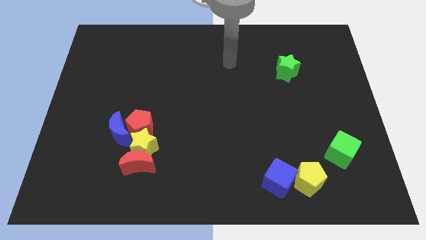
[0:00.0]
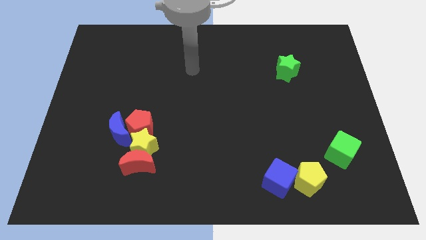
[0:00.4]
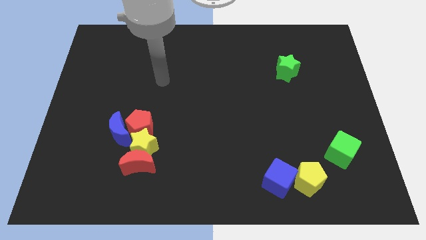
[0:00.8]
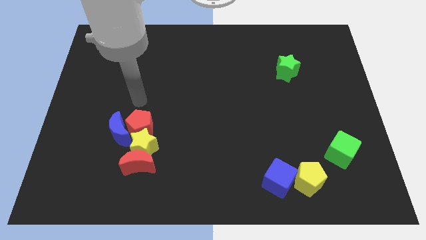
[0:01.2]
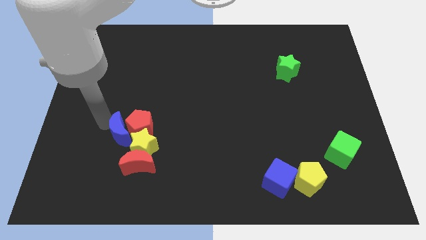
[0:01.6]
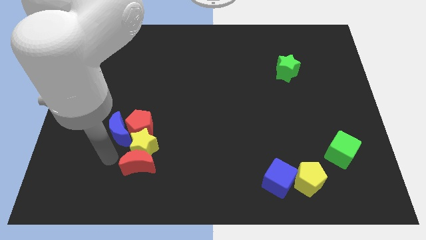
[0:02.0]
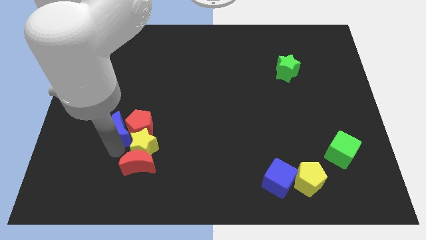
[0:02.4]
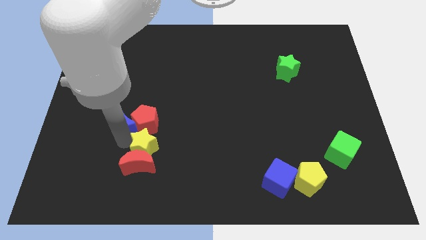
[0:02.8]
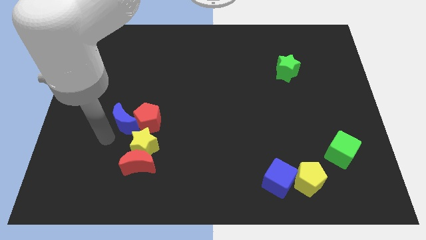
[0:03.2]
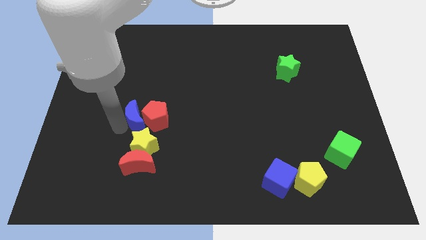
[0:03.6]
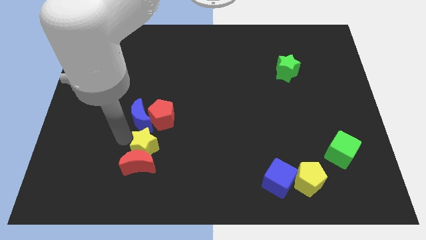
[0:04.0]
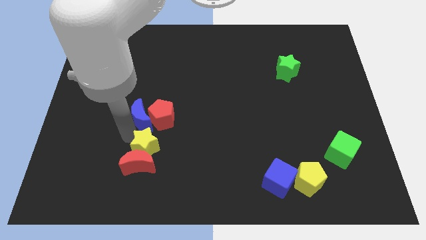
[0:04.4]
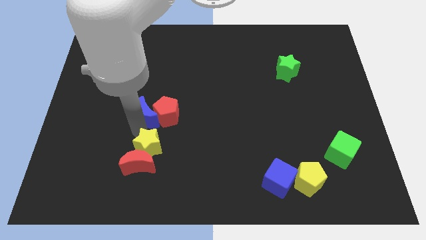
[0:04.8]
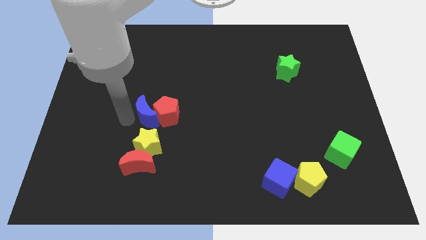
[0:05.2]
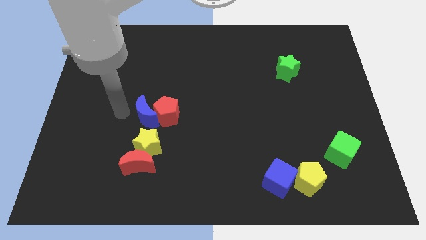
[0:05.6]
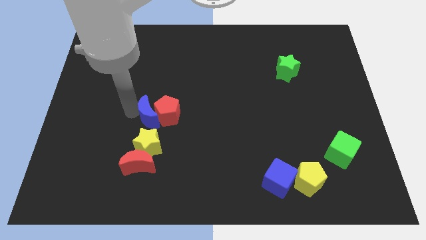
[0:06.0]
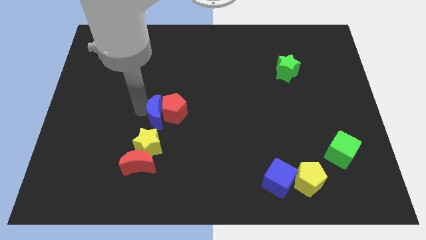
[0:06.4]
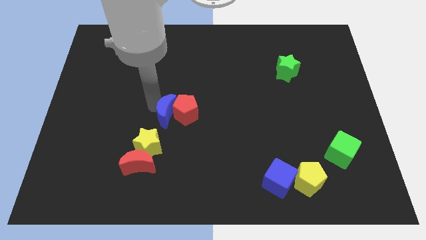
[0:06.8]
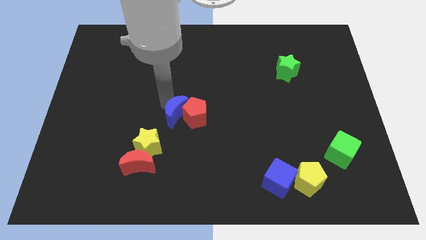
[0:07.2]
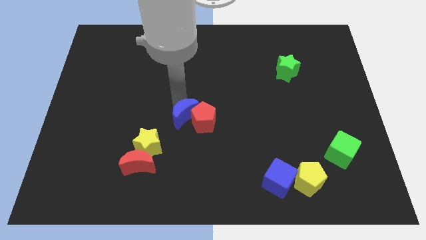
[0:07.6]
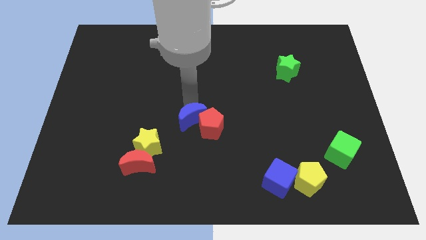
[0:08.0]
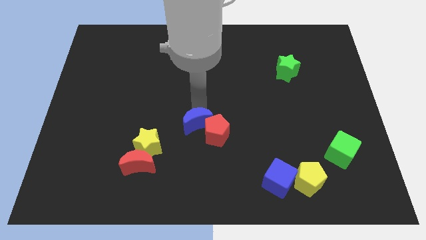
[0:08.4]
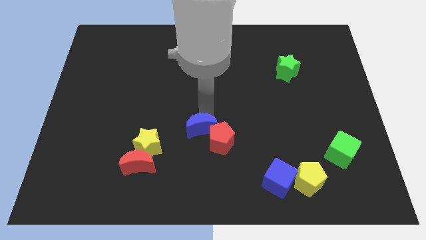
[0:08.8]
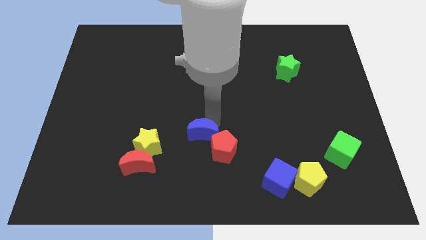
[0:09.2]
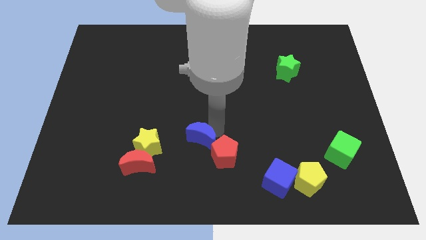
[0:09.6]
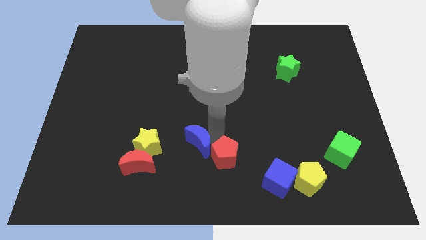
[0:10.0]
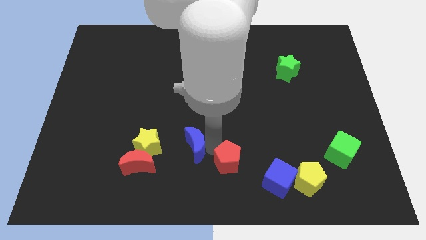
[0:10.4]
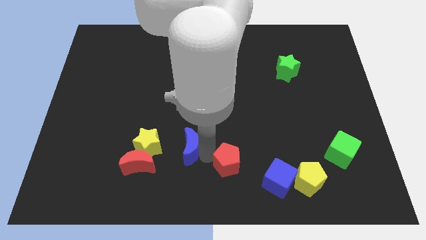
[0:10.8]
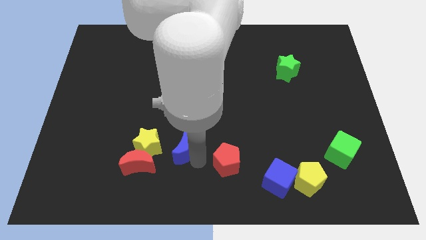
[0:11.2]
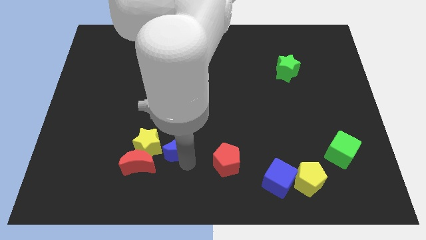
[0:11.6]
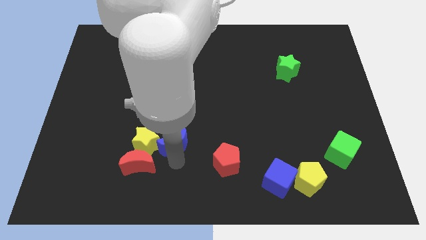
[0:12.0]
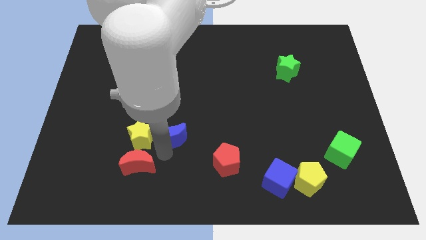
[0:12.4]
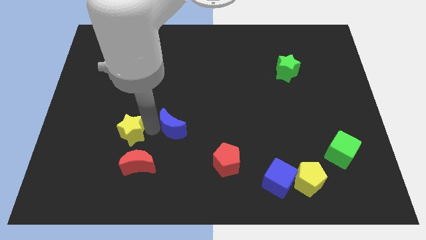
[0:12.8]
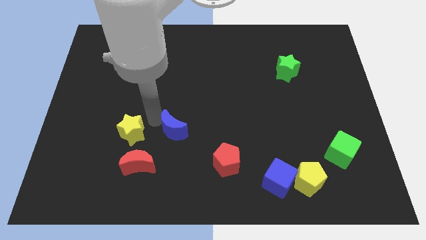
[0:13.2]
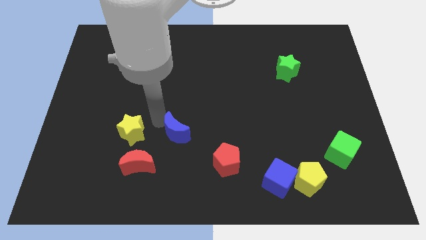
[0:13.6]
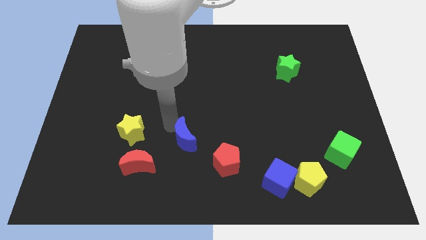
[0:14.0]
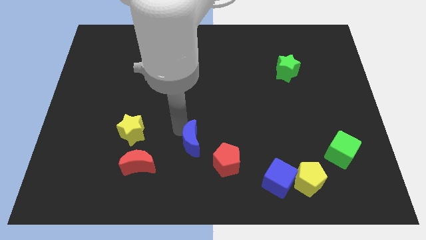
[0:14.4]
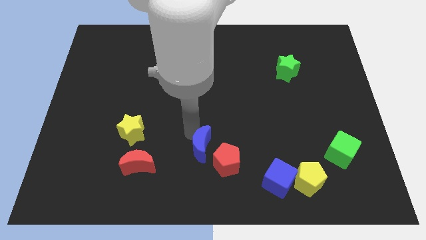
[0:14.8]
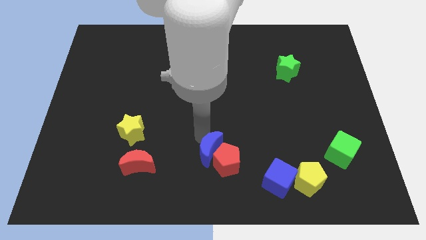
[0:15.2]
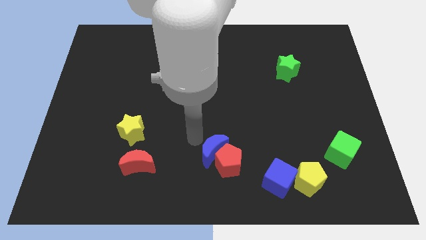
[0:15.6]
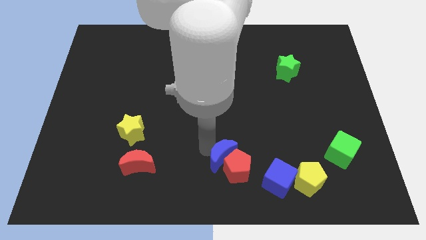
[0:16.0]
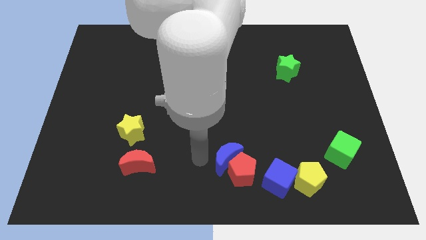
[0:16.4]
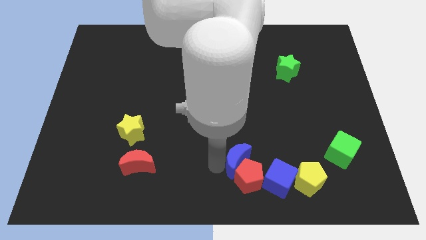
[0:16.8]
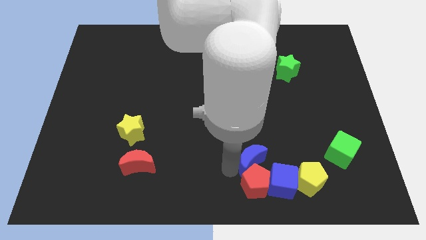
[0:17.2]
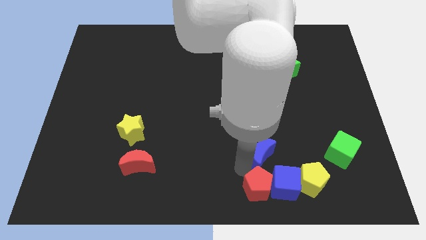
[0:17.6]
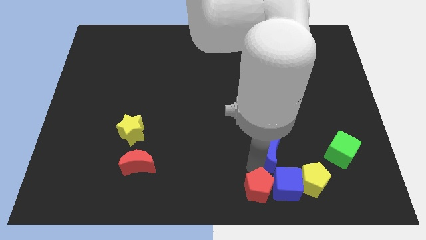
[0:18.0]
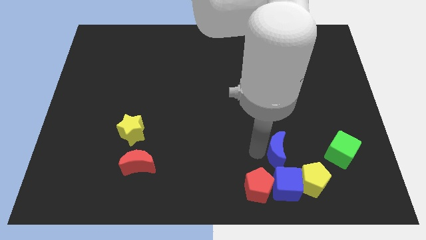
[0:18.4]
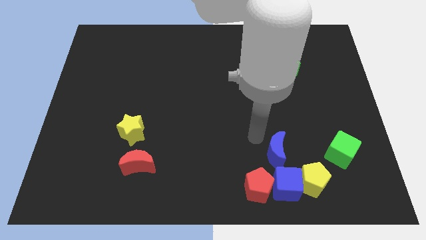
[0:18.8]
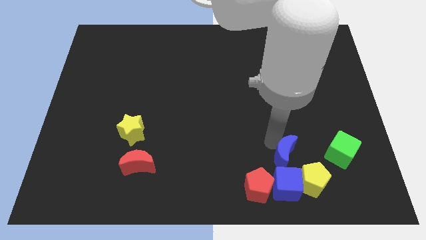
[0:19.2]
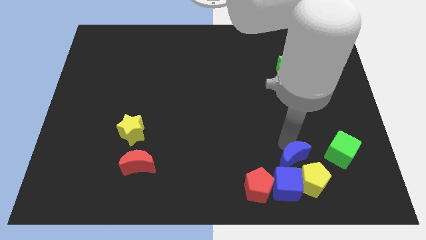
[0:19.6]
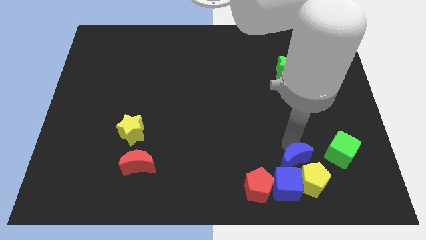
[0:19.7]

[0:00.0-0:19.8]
push the blue moon to the yellow pentagon

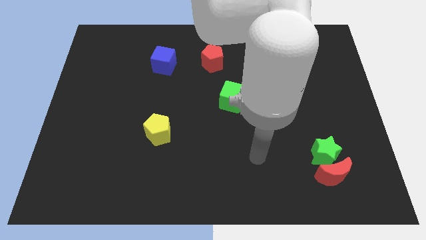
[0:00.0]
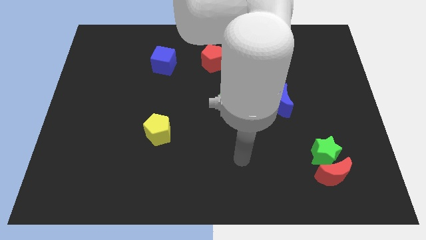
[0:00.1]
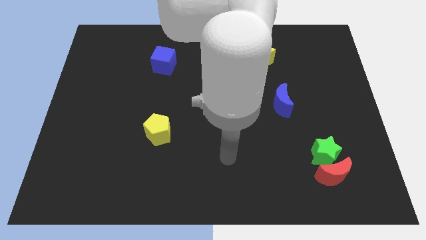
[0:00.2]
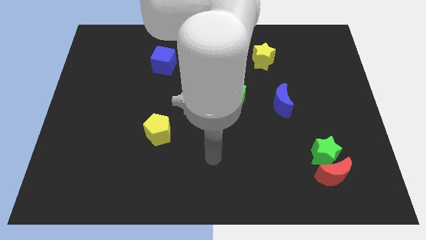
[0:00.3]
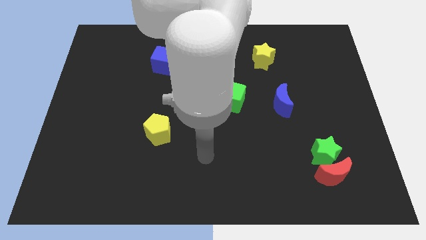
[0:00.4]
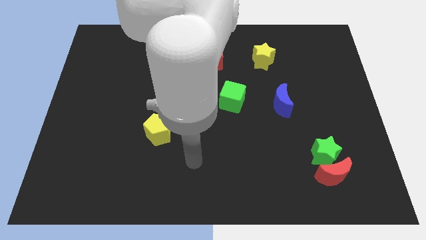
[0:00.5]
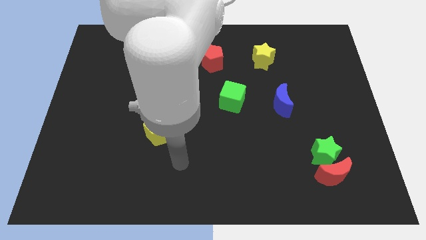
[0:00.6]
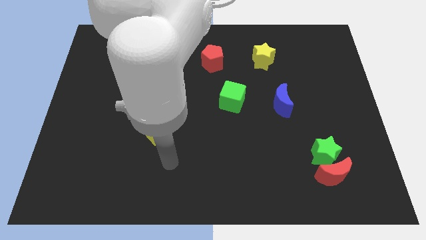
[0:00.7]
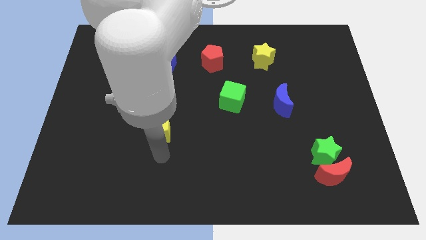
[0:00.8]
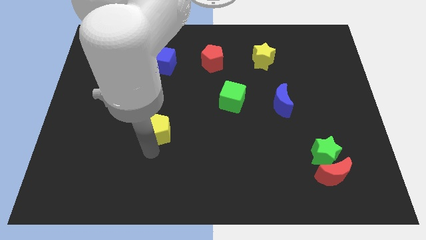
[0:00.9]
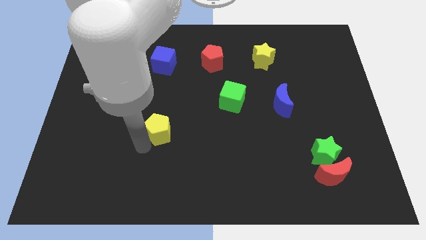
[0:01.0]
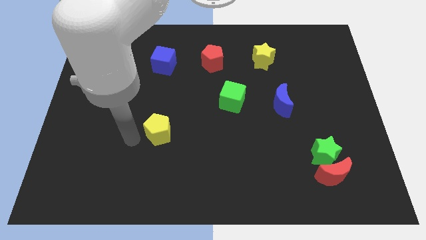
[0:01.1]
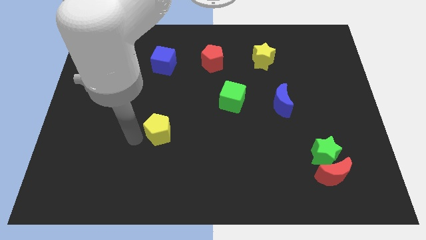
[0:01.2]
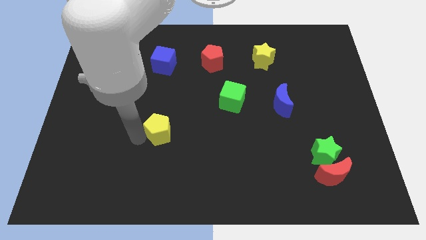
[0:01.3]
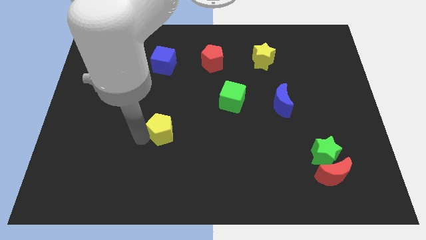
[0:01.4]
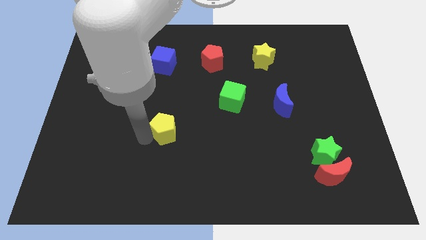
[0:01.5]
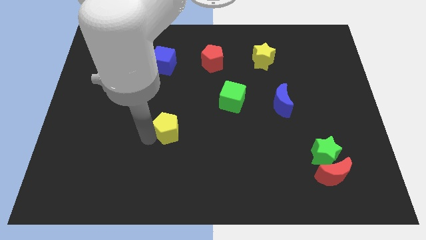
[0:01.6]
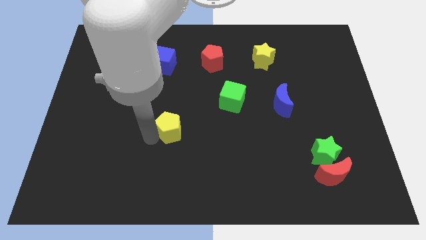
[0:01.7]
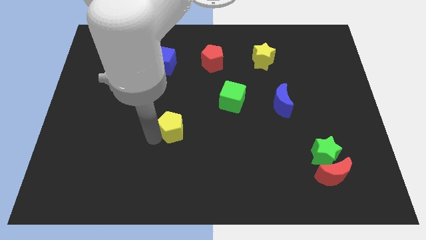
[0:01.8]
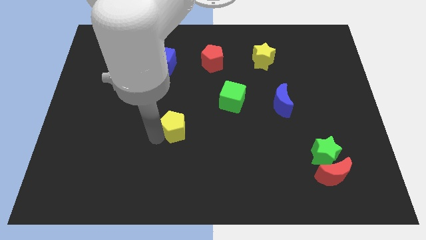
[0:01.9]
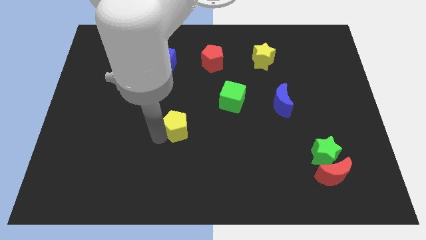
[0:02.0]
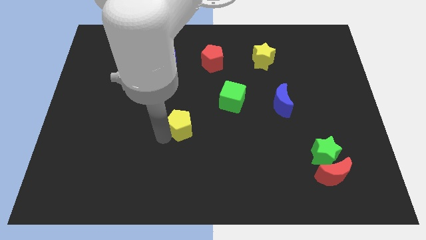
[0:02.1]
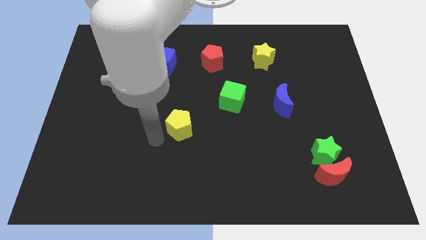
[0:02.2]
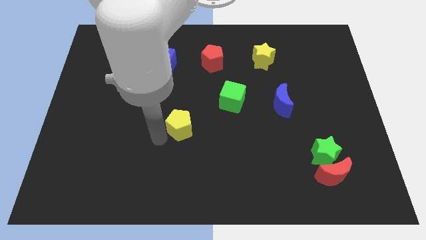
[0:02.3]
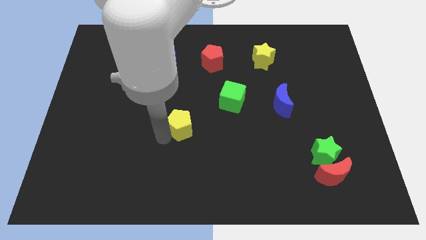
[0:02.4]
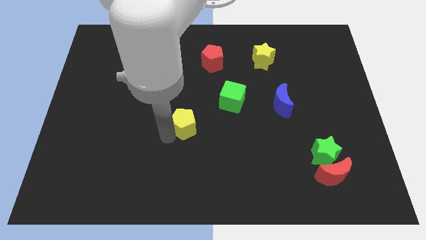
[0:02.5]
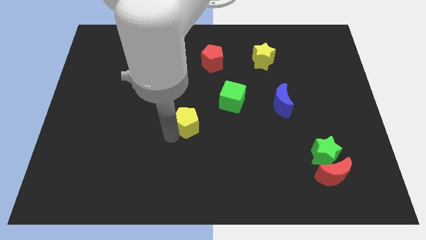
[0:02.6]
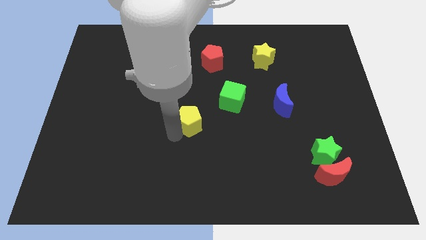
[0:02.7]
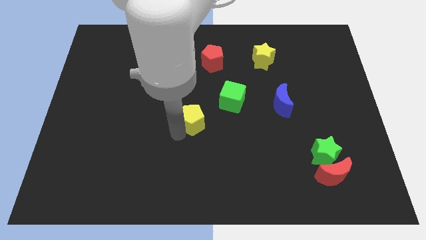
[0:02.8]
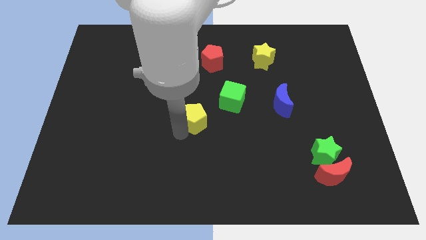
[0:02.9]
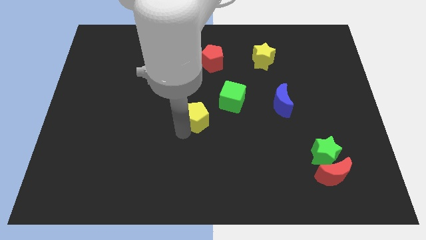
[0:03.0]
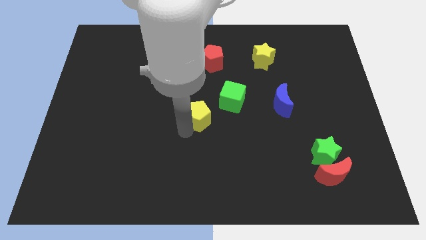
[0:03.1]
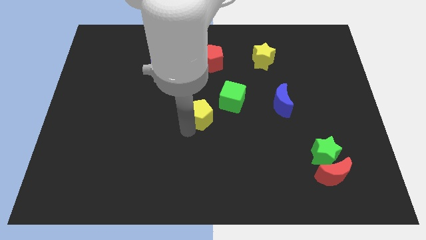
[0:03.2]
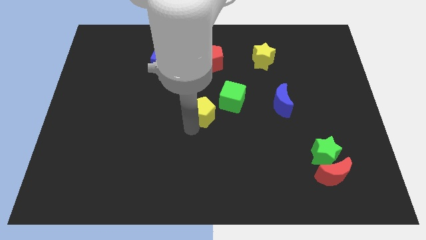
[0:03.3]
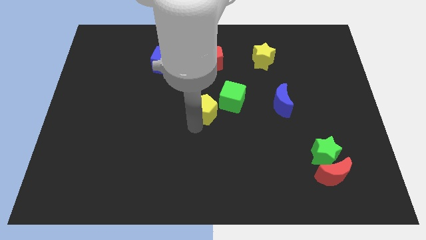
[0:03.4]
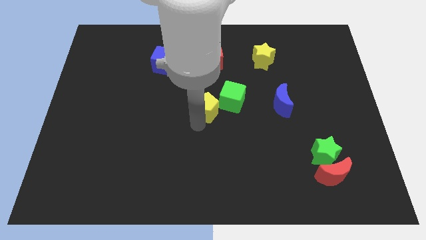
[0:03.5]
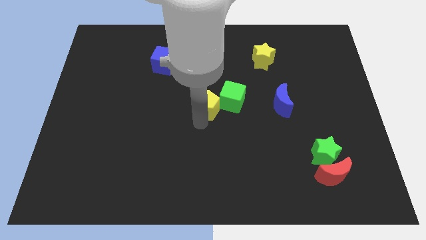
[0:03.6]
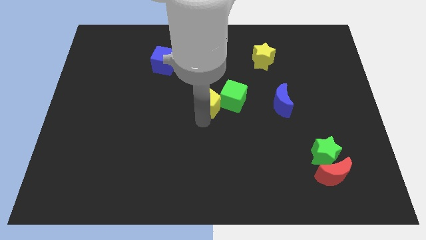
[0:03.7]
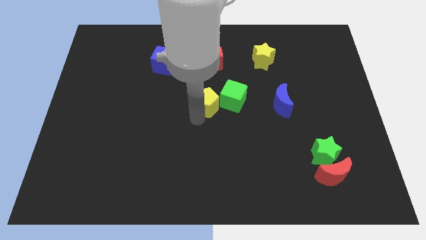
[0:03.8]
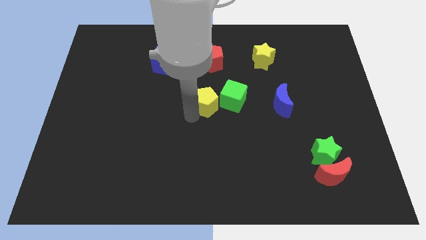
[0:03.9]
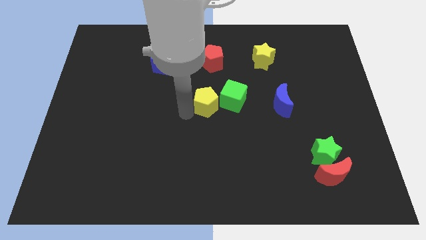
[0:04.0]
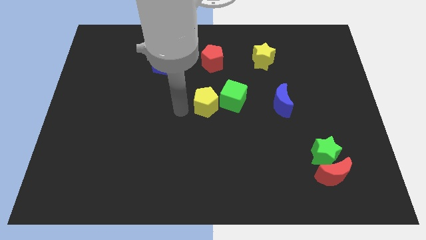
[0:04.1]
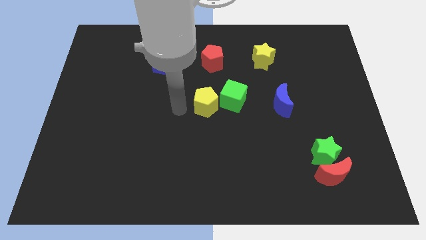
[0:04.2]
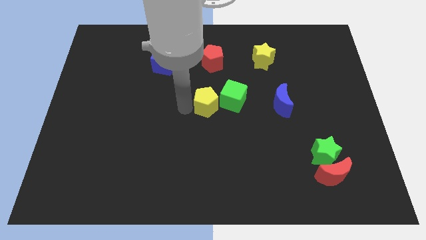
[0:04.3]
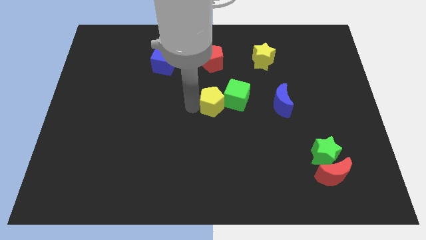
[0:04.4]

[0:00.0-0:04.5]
put the yellow pentagon close to the green cube
